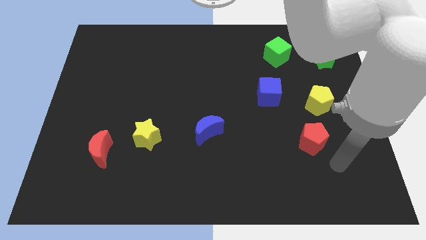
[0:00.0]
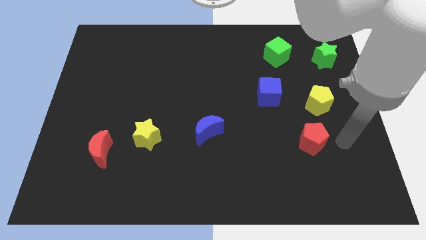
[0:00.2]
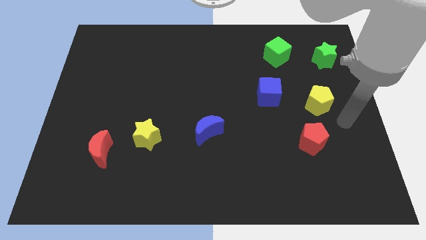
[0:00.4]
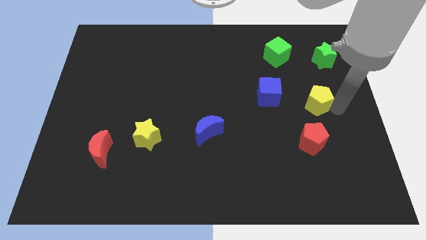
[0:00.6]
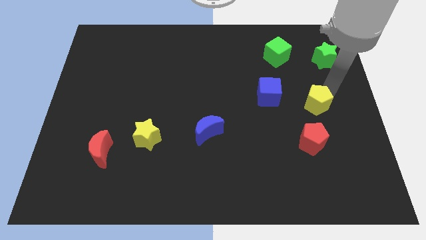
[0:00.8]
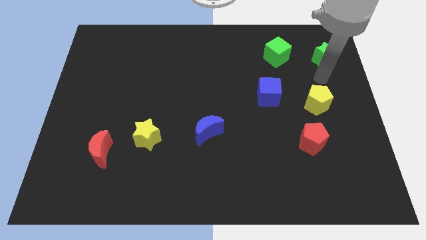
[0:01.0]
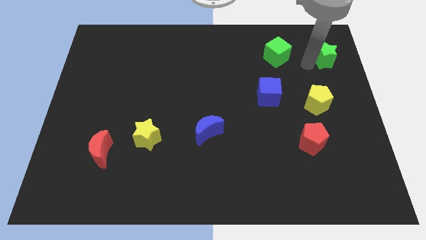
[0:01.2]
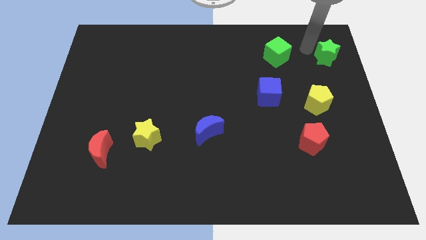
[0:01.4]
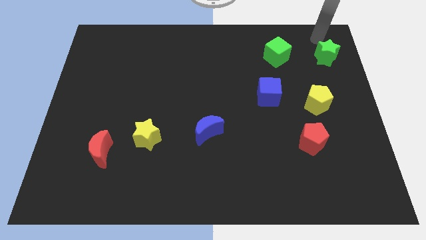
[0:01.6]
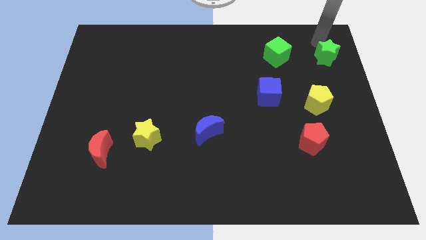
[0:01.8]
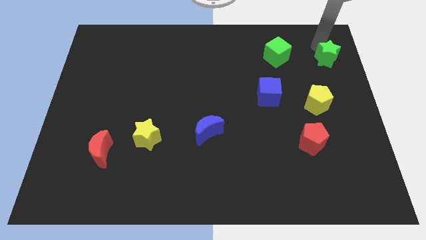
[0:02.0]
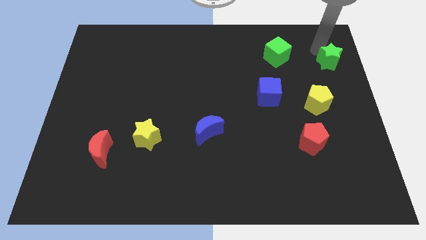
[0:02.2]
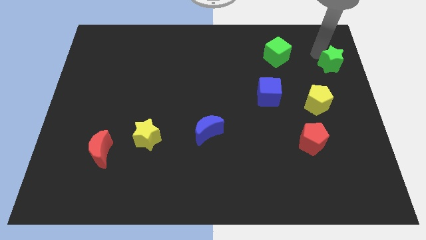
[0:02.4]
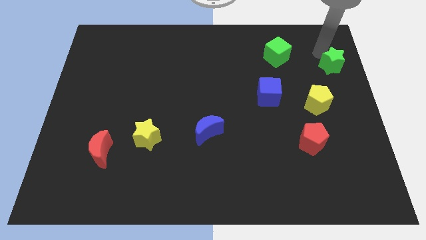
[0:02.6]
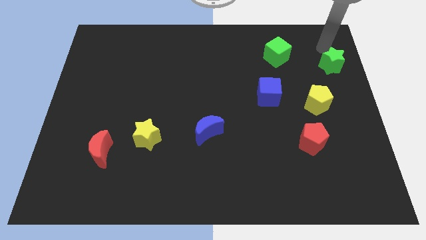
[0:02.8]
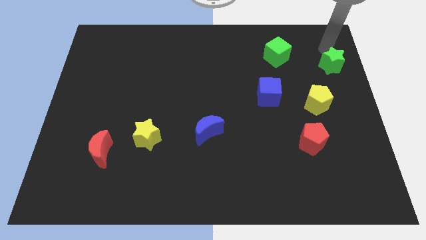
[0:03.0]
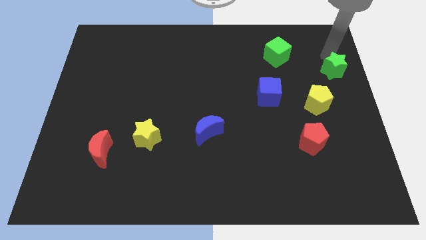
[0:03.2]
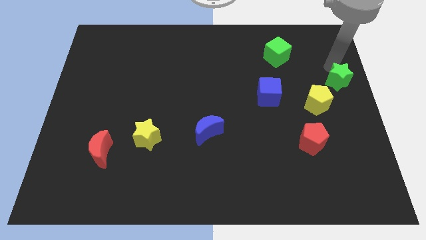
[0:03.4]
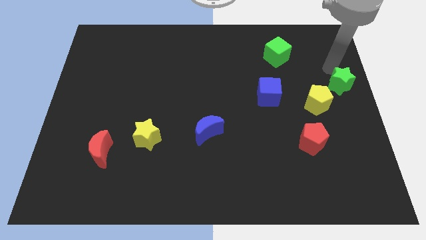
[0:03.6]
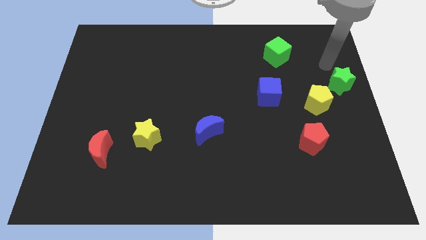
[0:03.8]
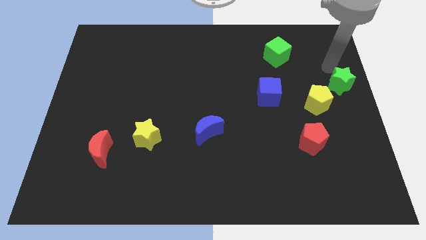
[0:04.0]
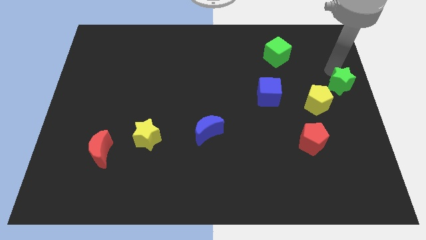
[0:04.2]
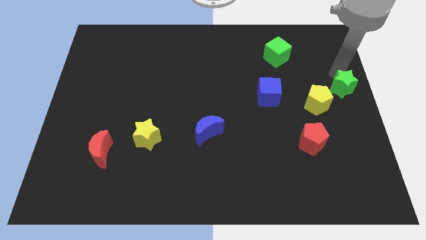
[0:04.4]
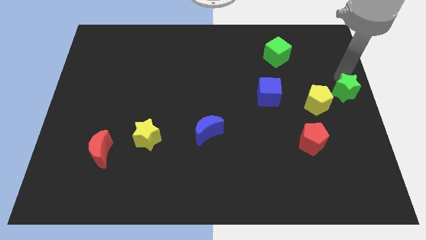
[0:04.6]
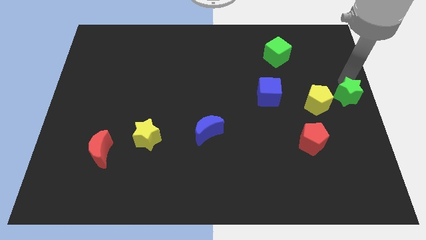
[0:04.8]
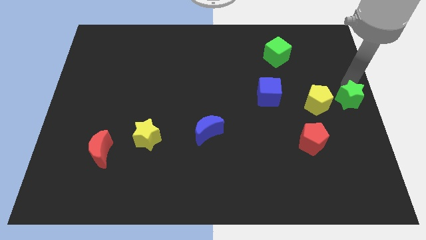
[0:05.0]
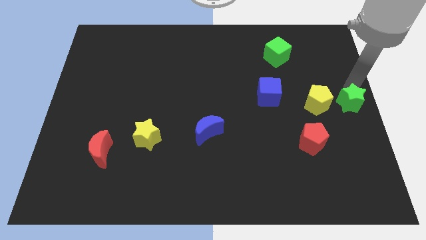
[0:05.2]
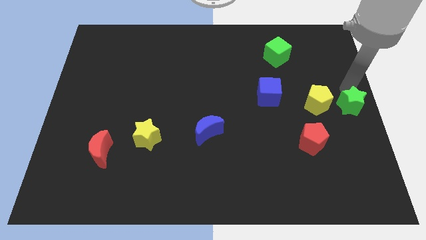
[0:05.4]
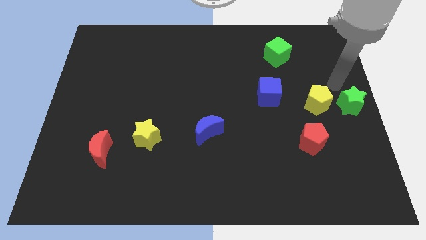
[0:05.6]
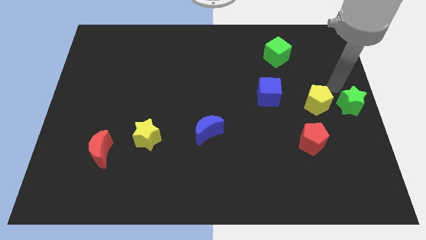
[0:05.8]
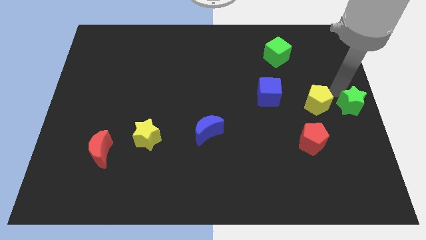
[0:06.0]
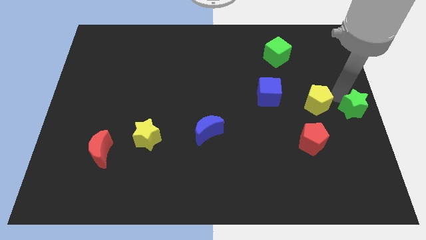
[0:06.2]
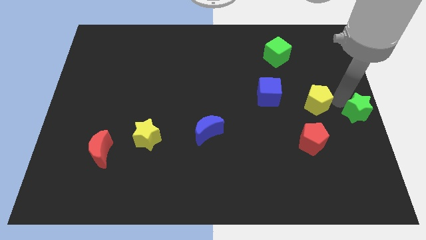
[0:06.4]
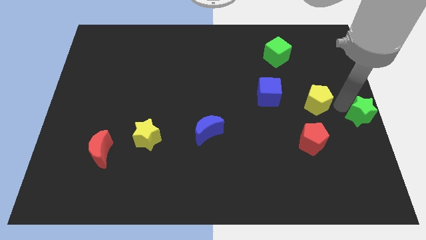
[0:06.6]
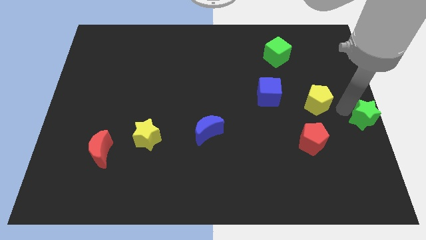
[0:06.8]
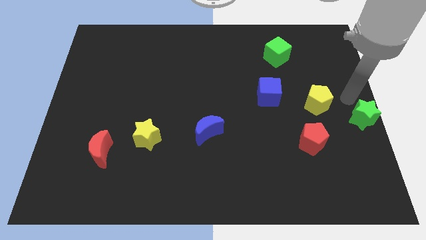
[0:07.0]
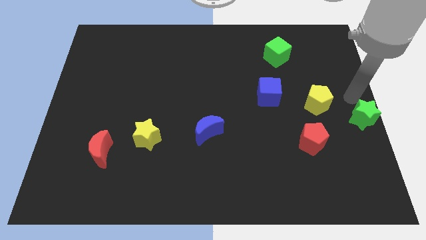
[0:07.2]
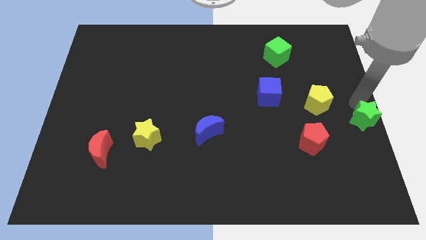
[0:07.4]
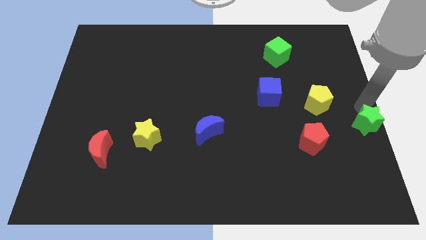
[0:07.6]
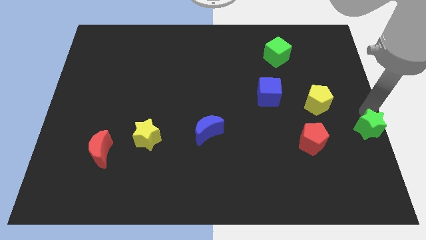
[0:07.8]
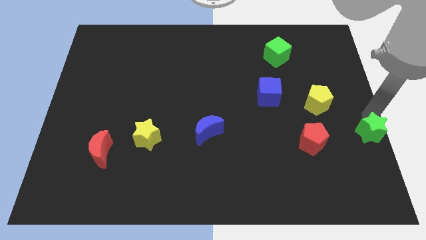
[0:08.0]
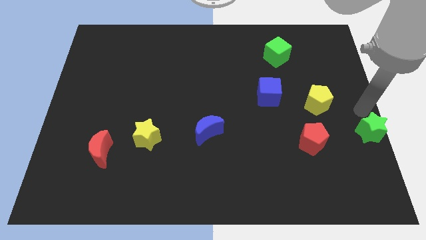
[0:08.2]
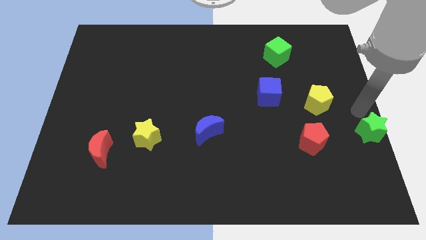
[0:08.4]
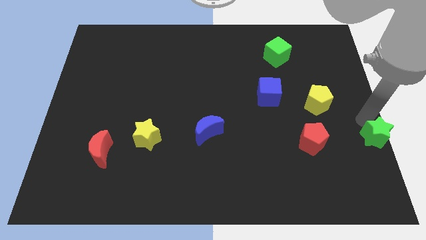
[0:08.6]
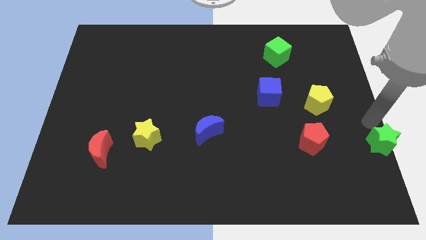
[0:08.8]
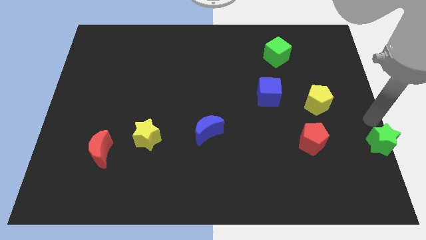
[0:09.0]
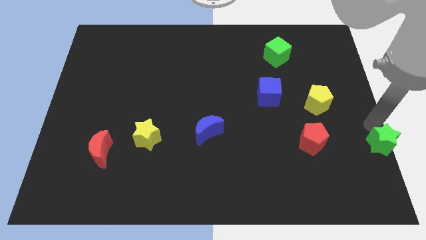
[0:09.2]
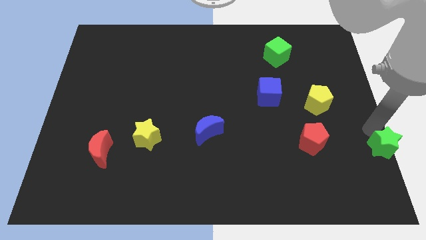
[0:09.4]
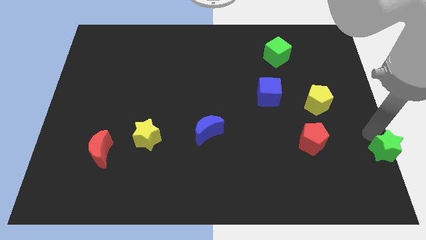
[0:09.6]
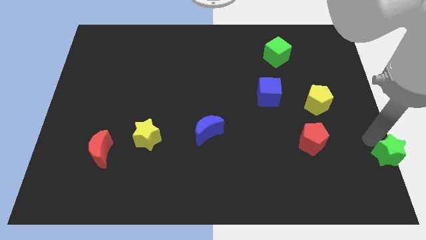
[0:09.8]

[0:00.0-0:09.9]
push the green star to the bottom right

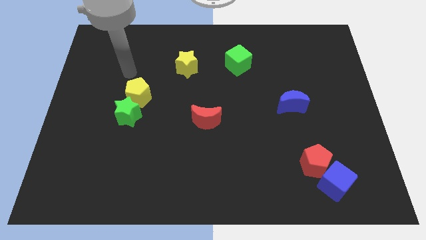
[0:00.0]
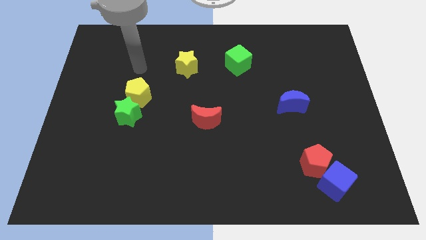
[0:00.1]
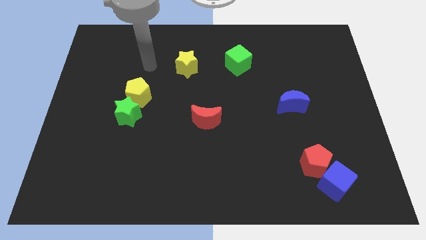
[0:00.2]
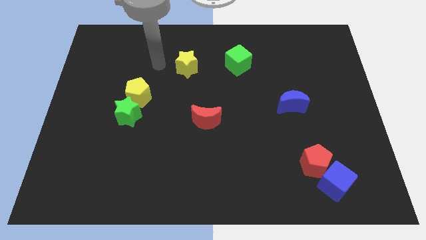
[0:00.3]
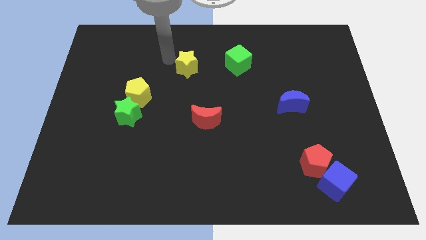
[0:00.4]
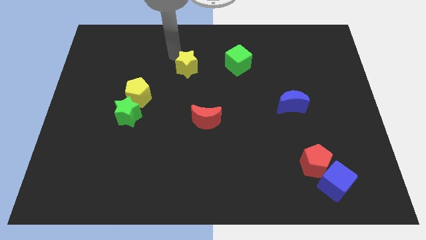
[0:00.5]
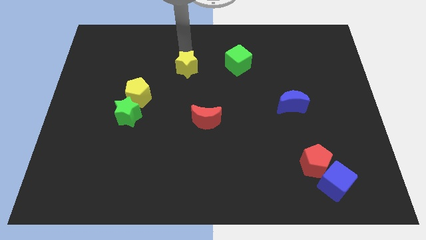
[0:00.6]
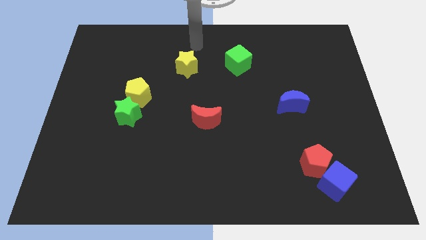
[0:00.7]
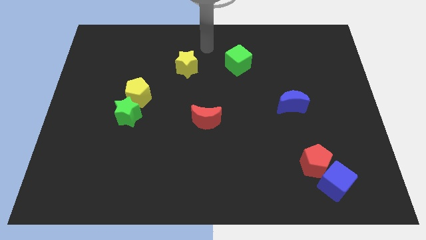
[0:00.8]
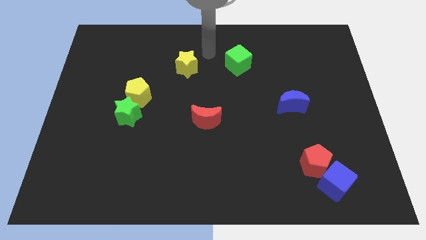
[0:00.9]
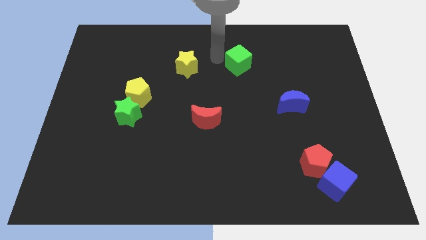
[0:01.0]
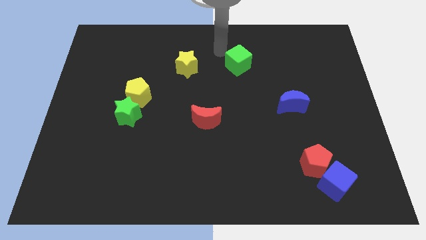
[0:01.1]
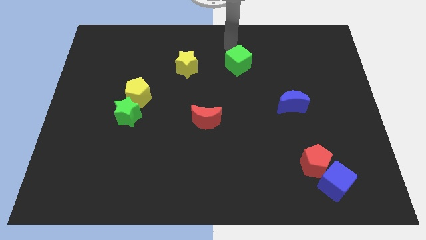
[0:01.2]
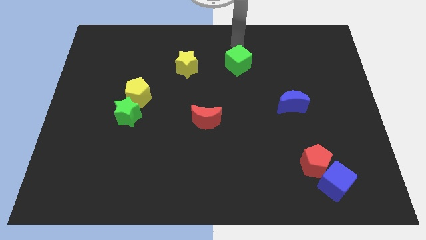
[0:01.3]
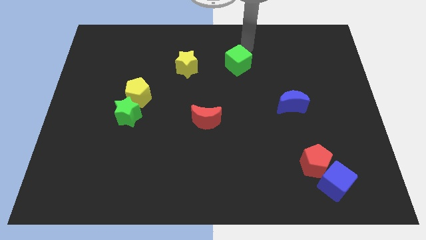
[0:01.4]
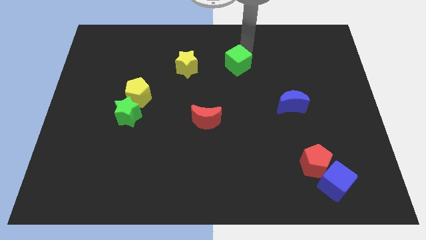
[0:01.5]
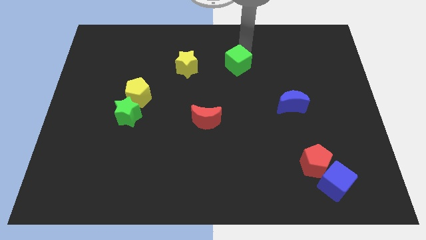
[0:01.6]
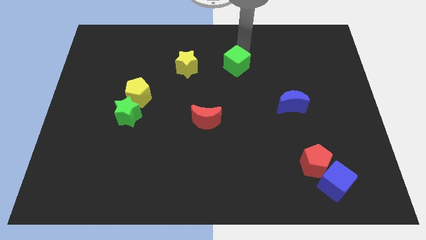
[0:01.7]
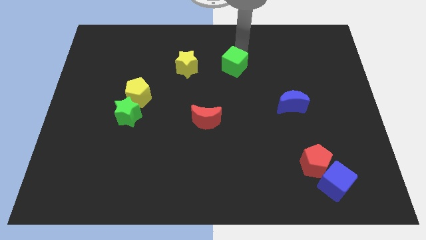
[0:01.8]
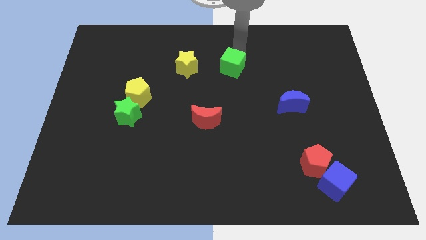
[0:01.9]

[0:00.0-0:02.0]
slide the green cube to the center of the board
